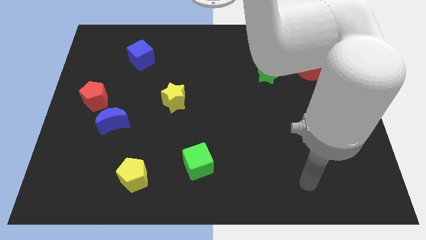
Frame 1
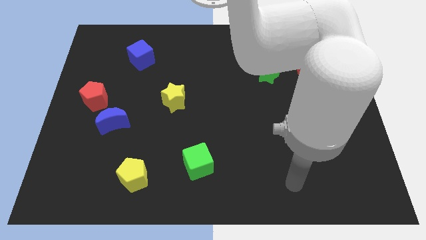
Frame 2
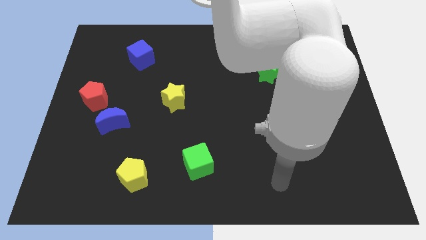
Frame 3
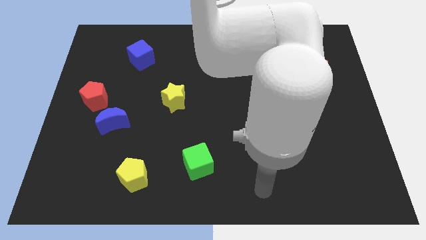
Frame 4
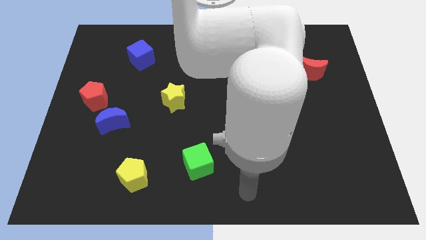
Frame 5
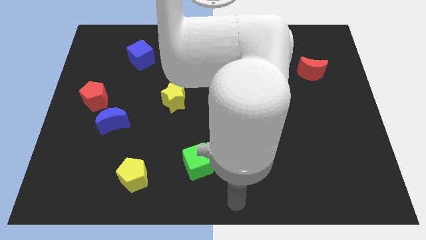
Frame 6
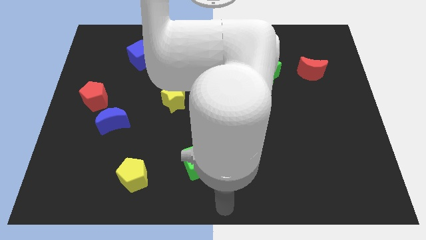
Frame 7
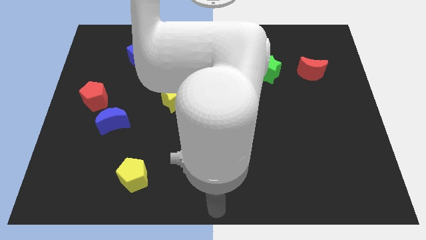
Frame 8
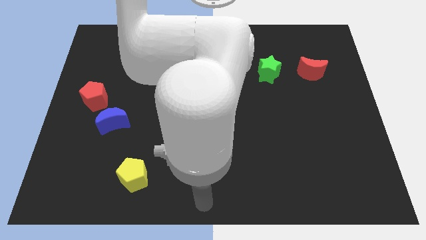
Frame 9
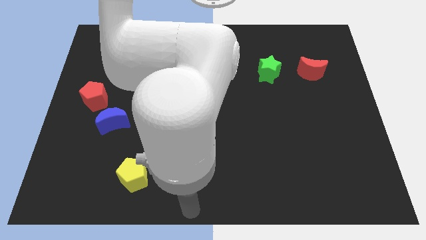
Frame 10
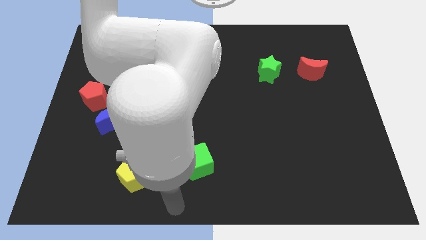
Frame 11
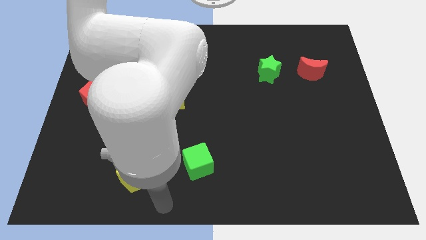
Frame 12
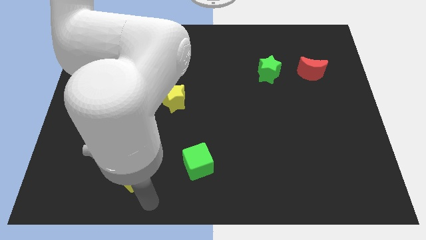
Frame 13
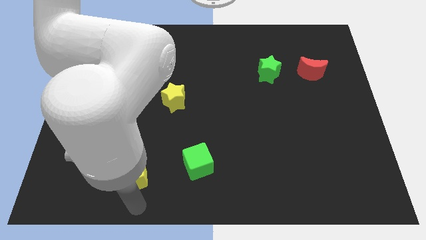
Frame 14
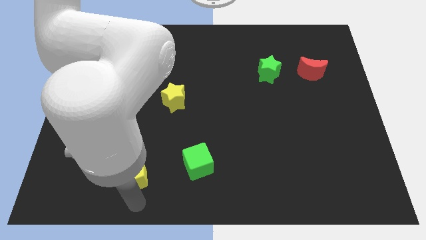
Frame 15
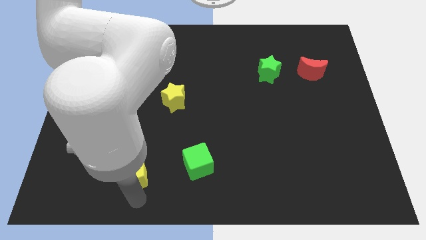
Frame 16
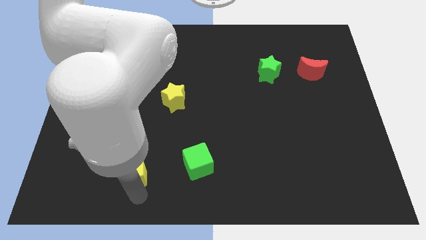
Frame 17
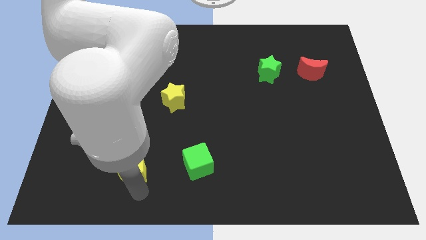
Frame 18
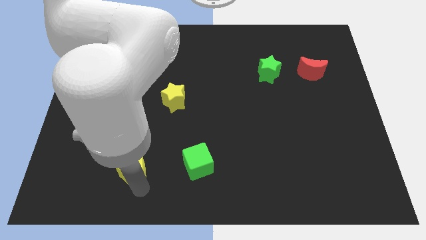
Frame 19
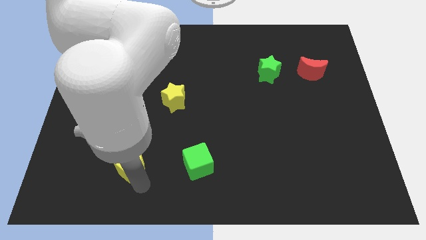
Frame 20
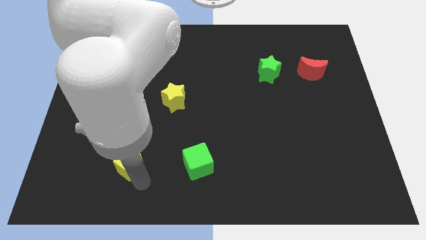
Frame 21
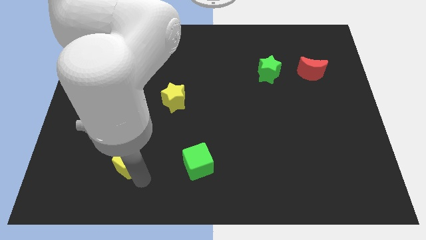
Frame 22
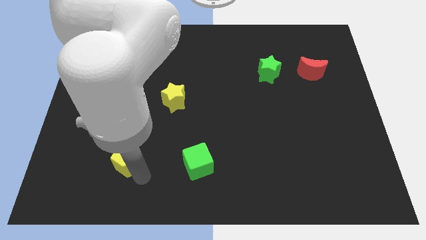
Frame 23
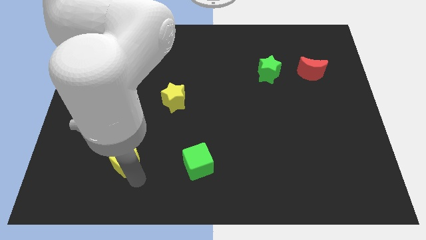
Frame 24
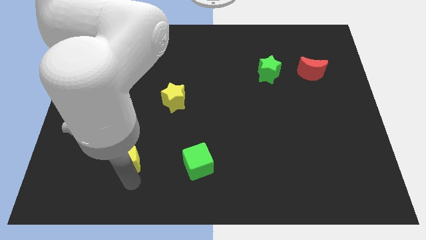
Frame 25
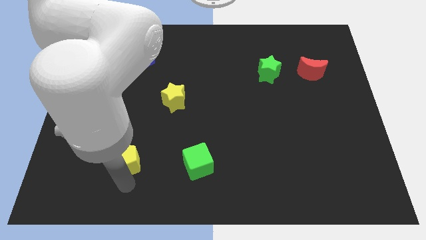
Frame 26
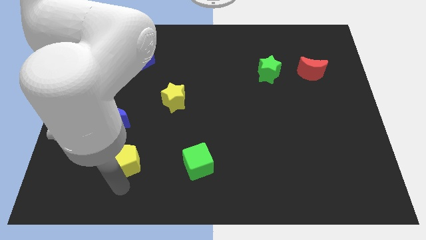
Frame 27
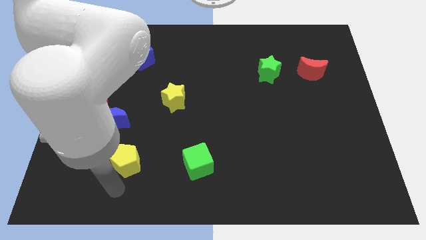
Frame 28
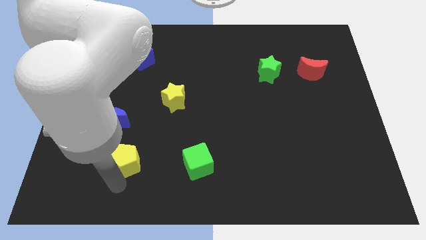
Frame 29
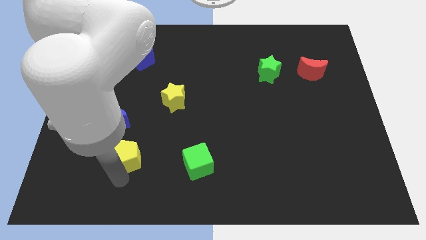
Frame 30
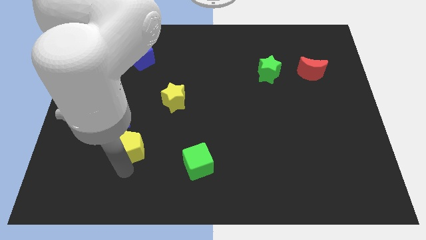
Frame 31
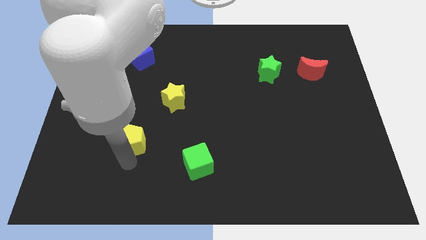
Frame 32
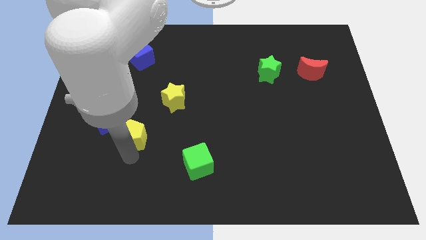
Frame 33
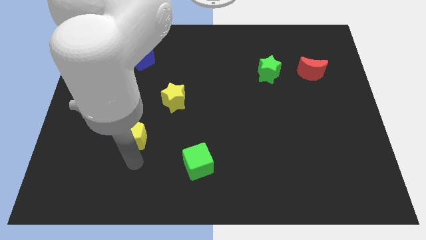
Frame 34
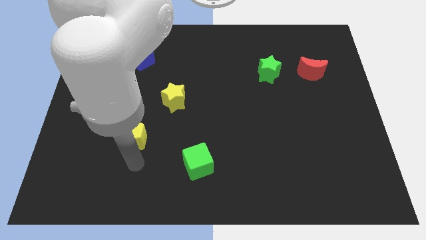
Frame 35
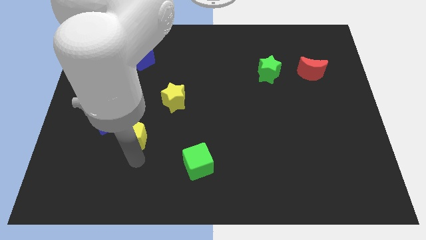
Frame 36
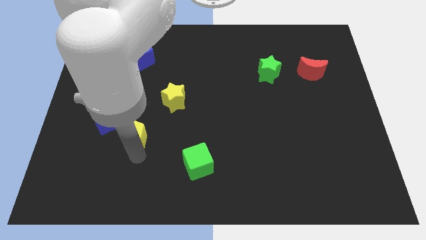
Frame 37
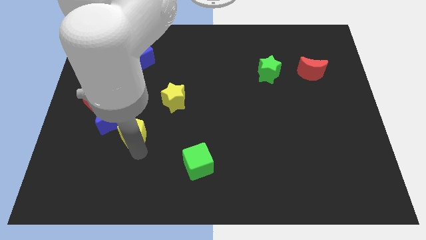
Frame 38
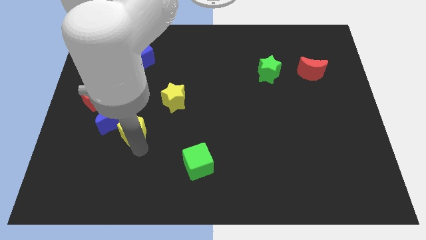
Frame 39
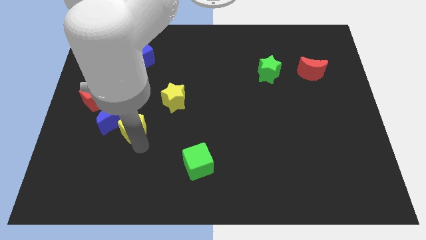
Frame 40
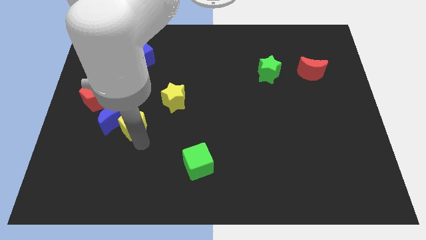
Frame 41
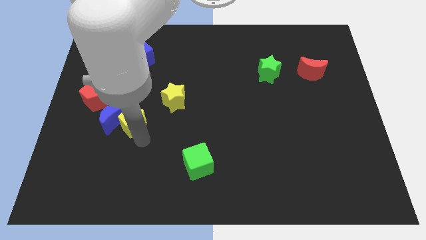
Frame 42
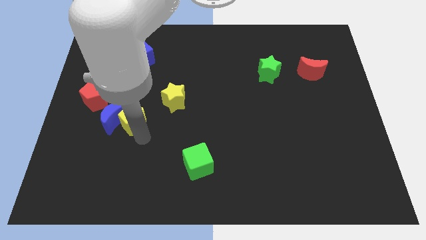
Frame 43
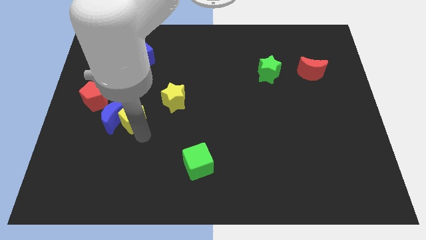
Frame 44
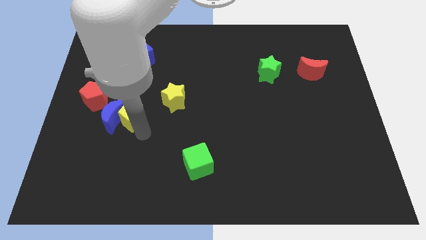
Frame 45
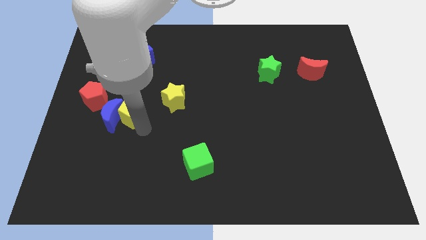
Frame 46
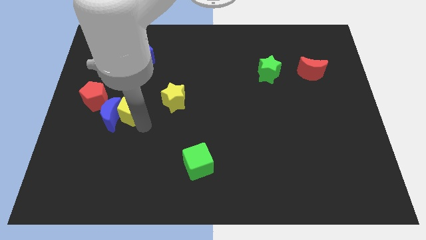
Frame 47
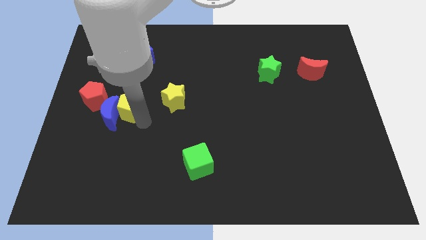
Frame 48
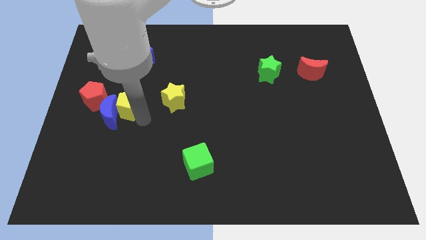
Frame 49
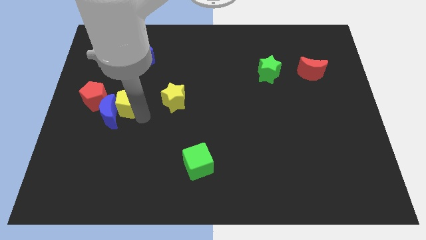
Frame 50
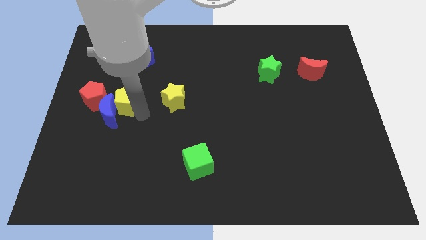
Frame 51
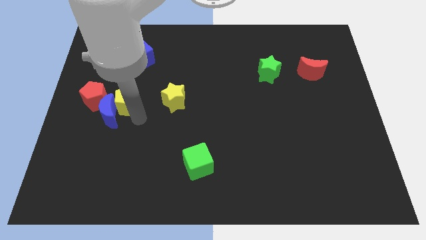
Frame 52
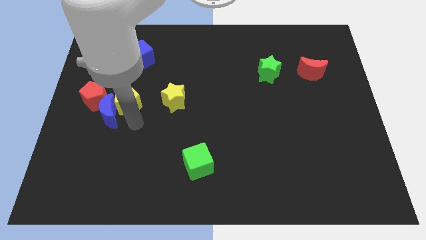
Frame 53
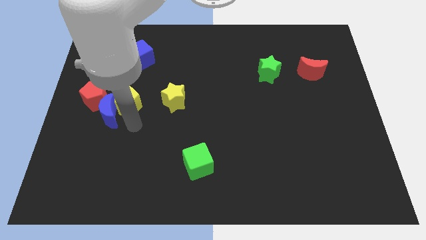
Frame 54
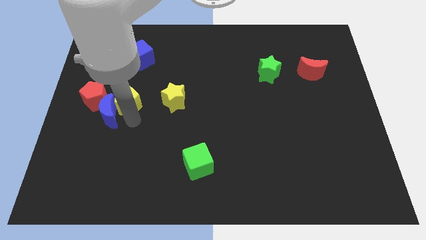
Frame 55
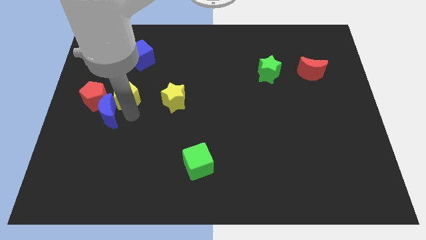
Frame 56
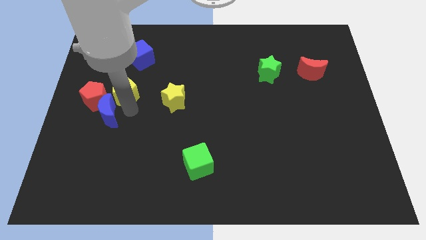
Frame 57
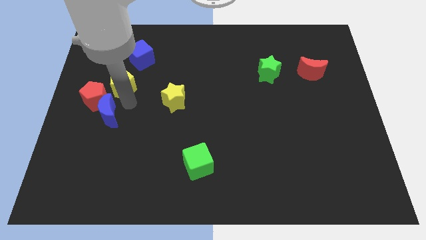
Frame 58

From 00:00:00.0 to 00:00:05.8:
move the yellow pentagon to the bottom left side of the blue cube

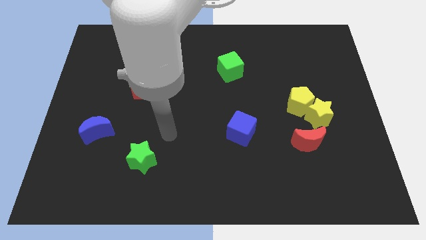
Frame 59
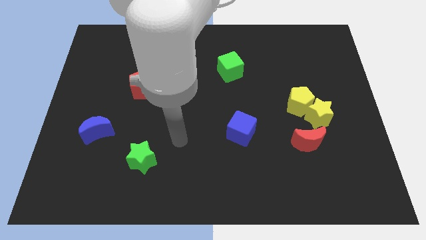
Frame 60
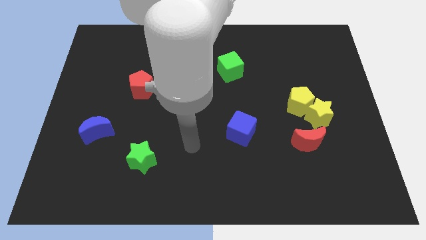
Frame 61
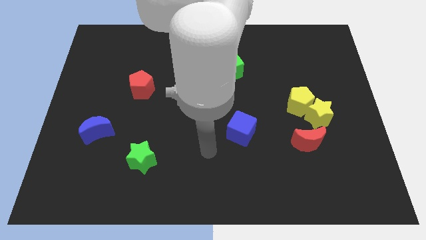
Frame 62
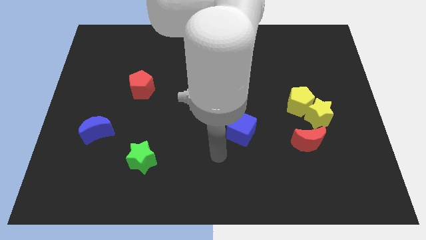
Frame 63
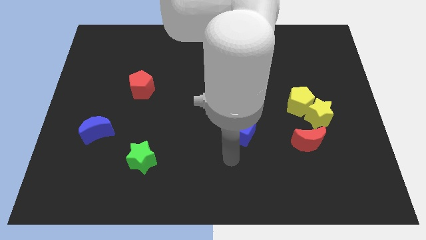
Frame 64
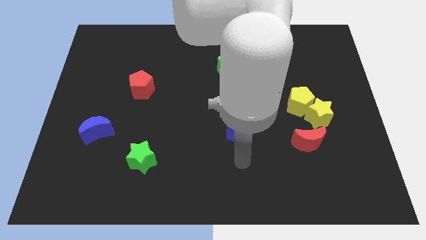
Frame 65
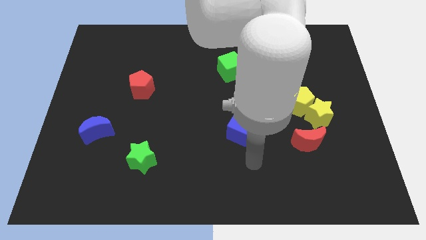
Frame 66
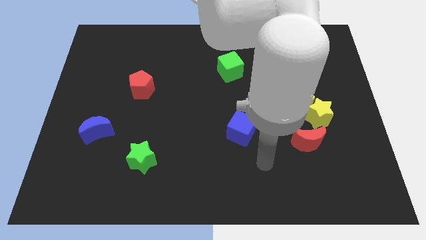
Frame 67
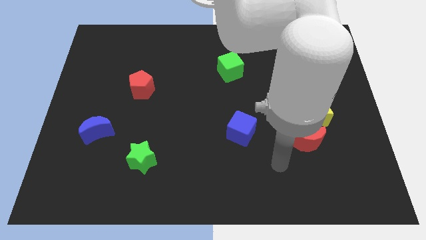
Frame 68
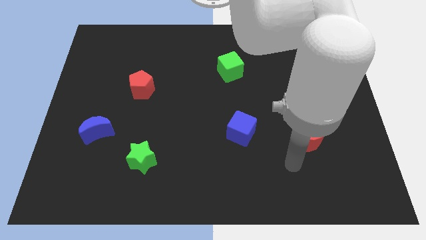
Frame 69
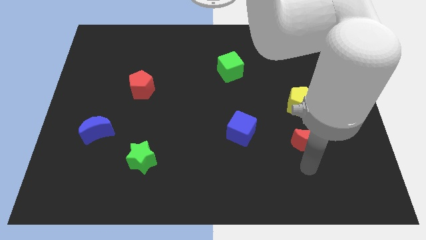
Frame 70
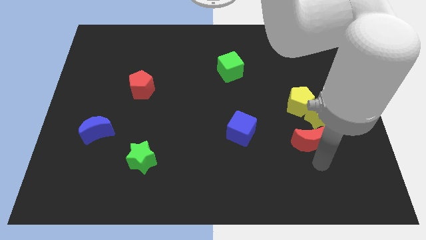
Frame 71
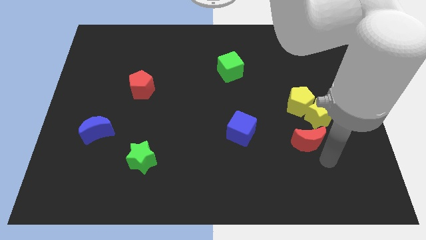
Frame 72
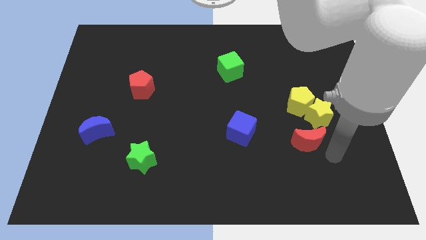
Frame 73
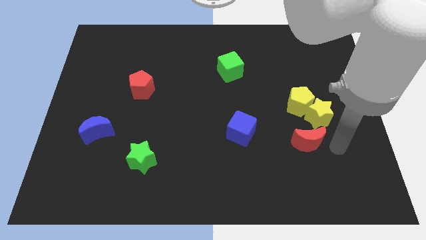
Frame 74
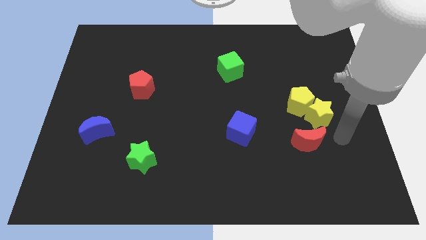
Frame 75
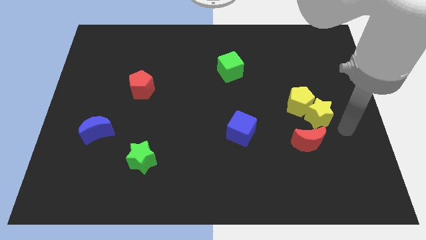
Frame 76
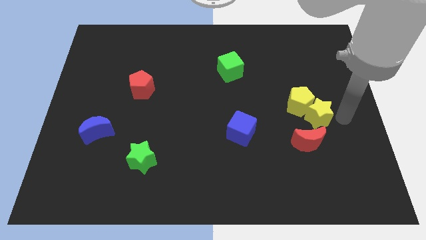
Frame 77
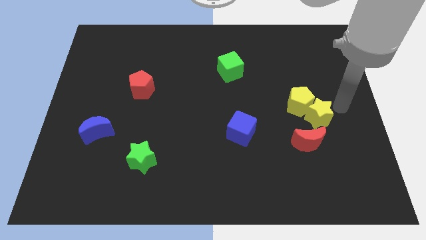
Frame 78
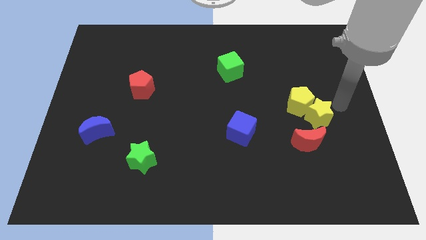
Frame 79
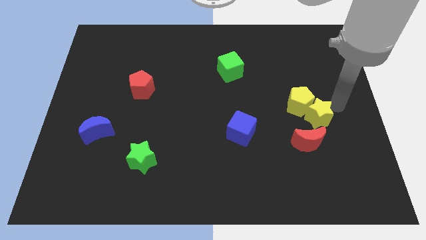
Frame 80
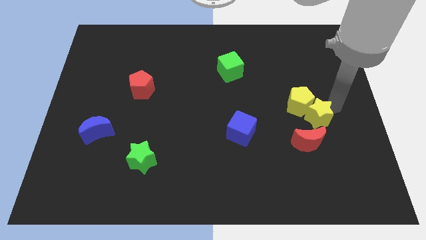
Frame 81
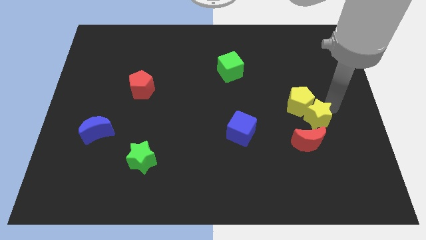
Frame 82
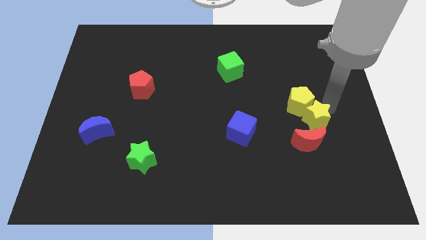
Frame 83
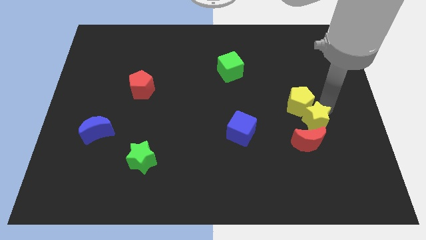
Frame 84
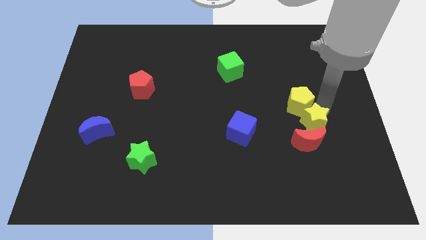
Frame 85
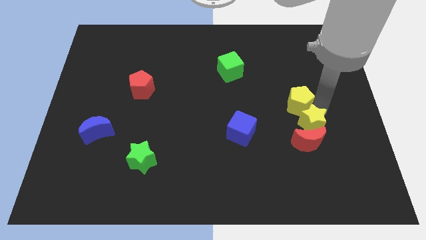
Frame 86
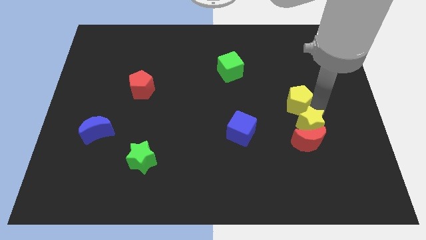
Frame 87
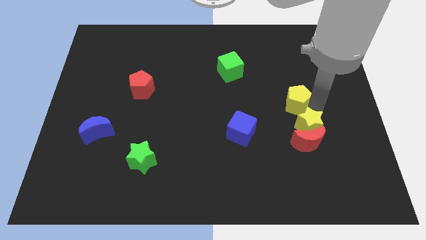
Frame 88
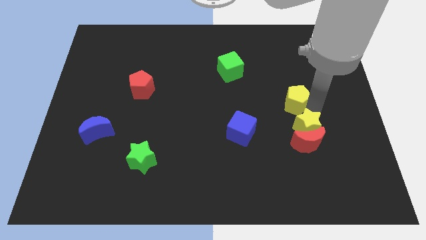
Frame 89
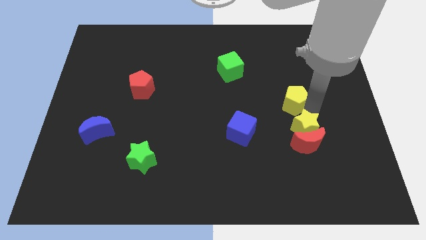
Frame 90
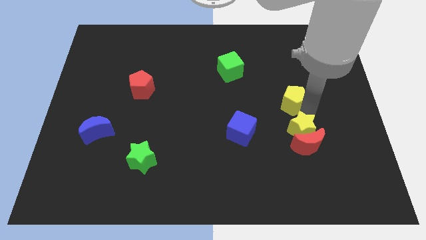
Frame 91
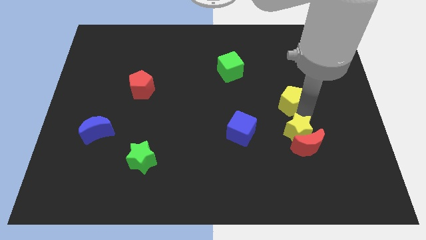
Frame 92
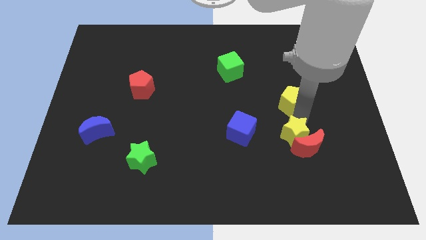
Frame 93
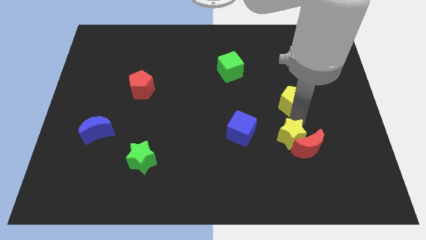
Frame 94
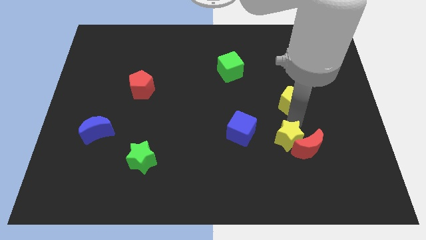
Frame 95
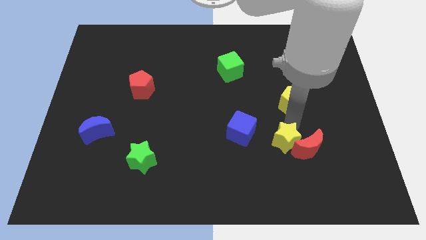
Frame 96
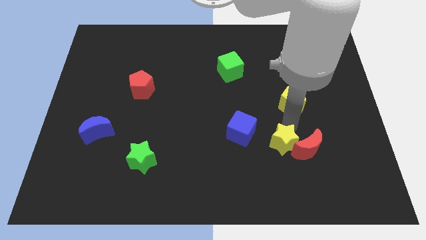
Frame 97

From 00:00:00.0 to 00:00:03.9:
push the yellow star diagonally down and to the right of the blue cube
